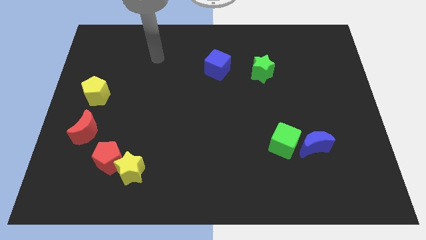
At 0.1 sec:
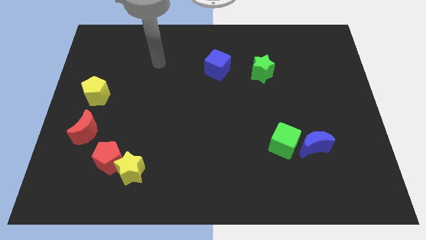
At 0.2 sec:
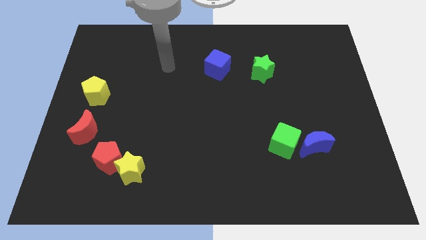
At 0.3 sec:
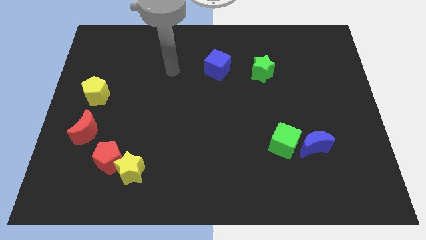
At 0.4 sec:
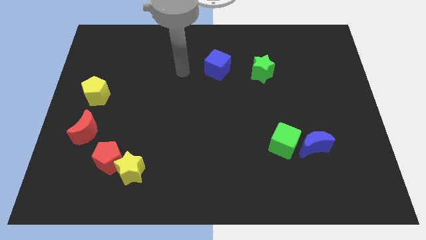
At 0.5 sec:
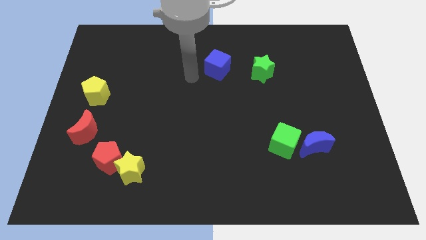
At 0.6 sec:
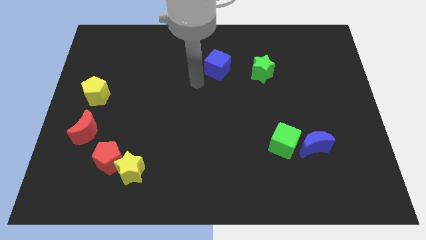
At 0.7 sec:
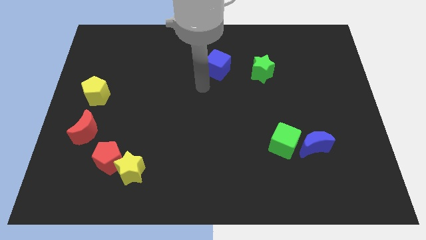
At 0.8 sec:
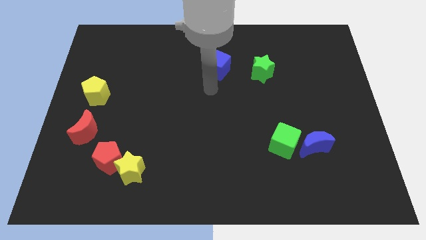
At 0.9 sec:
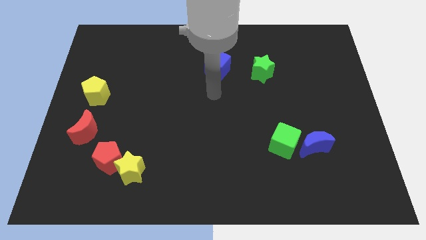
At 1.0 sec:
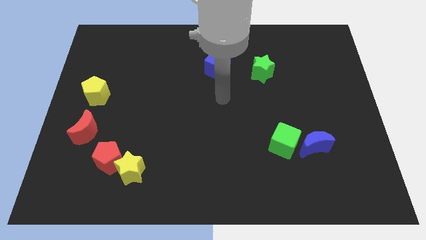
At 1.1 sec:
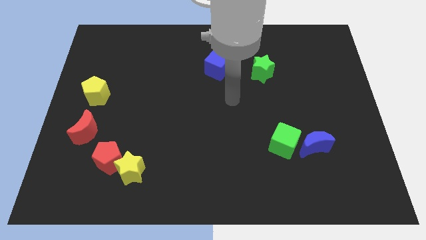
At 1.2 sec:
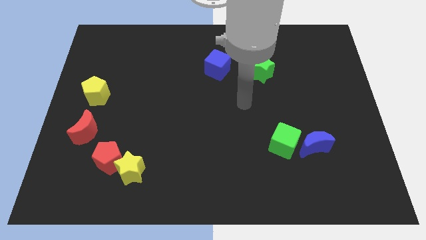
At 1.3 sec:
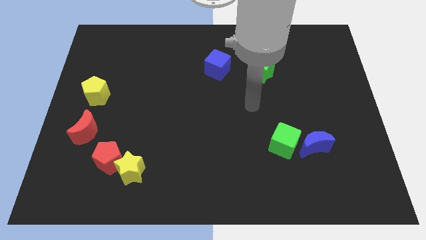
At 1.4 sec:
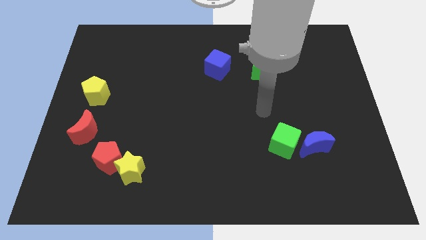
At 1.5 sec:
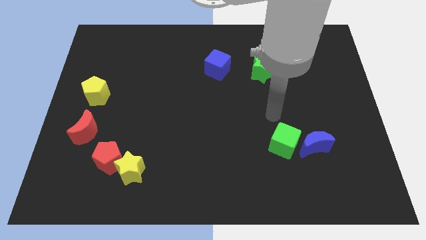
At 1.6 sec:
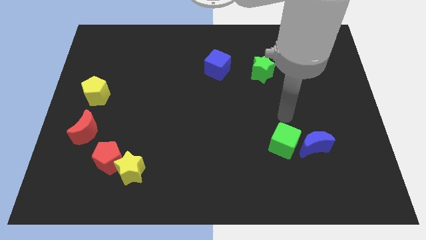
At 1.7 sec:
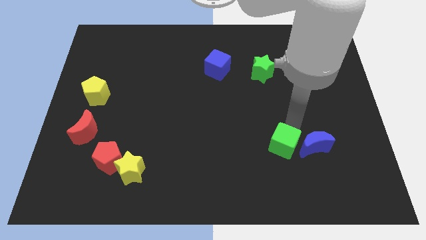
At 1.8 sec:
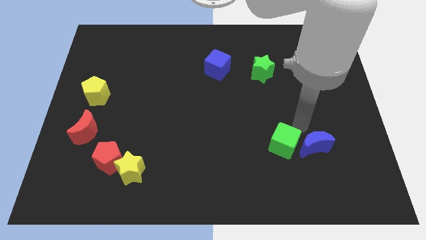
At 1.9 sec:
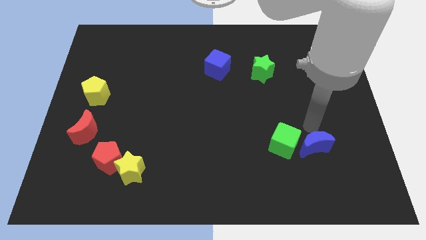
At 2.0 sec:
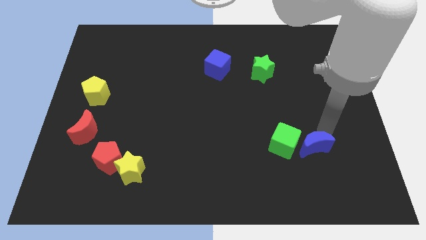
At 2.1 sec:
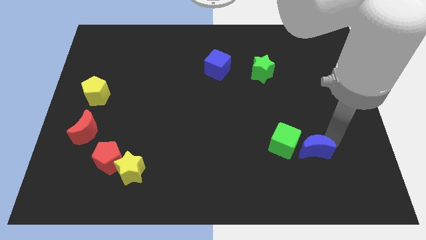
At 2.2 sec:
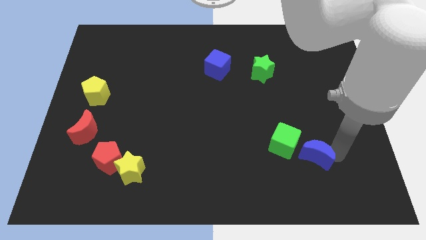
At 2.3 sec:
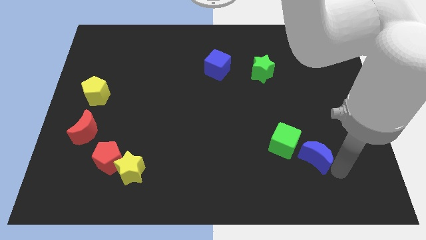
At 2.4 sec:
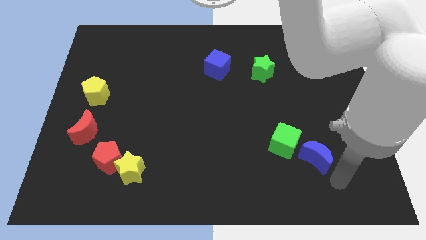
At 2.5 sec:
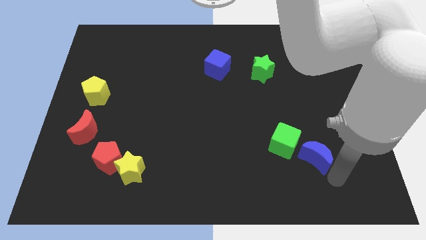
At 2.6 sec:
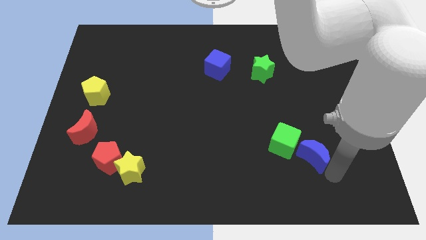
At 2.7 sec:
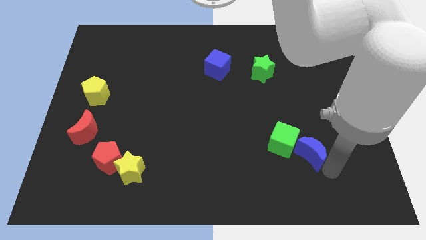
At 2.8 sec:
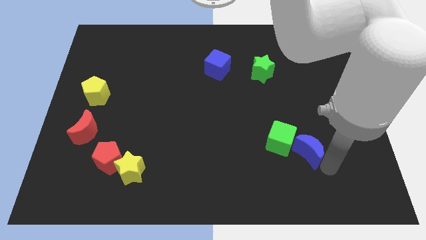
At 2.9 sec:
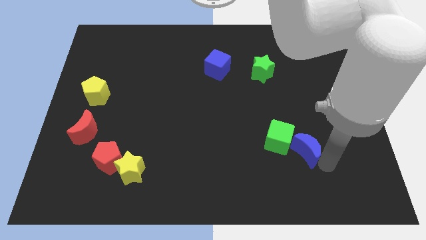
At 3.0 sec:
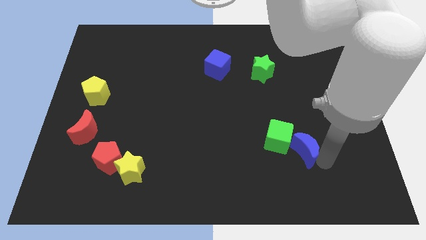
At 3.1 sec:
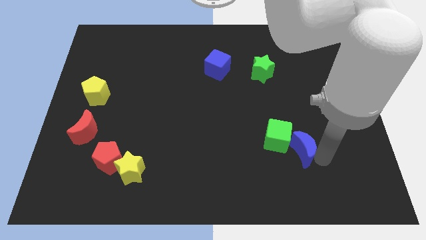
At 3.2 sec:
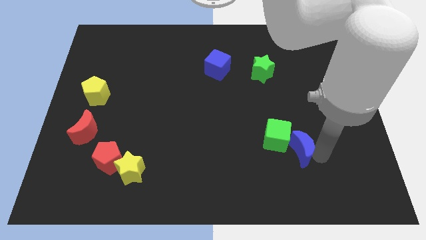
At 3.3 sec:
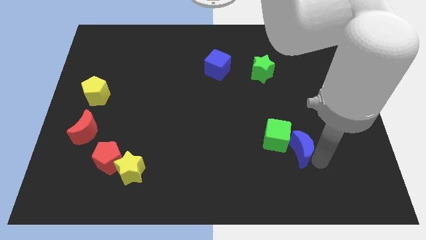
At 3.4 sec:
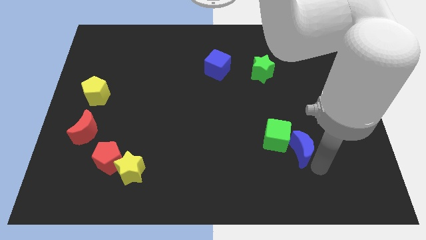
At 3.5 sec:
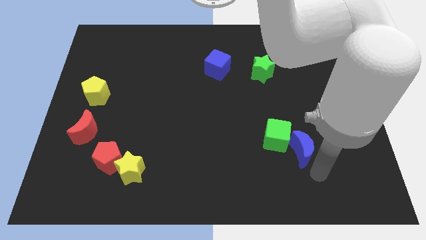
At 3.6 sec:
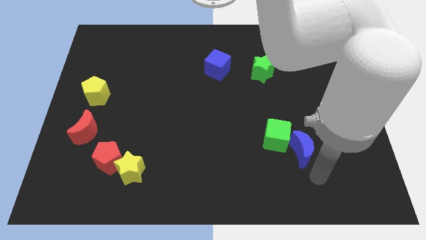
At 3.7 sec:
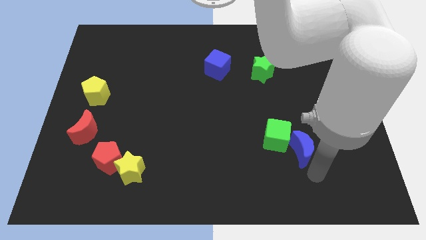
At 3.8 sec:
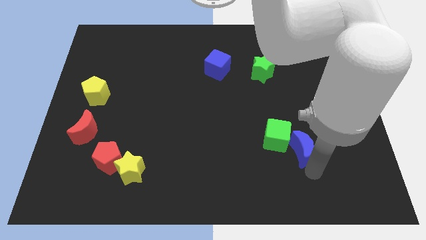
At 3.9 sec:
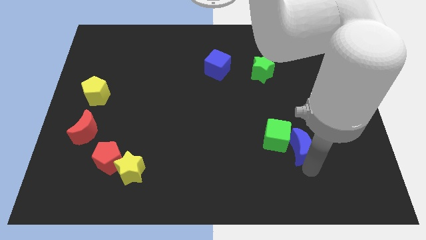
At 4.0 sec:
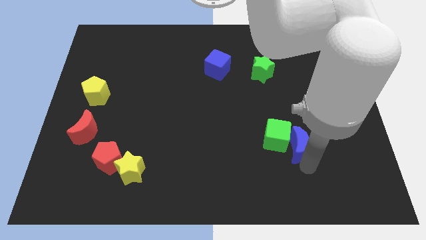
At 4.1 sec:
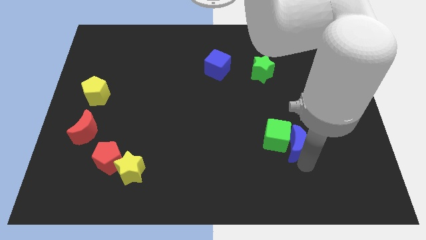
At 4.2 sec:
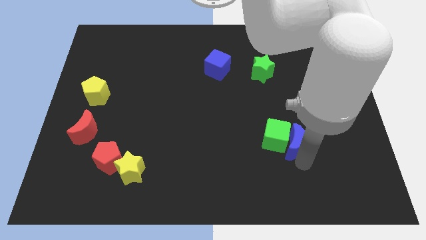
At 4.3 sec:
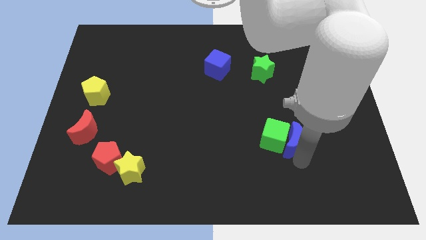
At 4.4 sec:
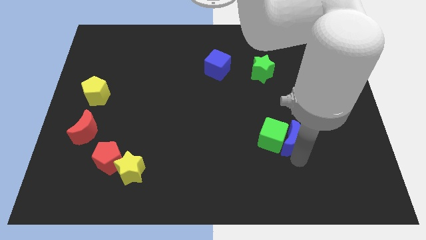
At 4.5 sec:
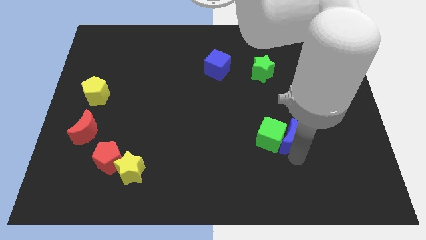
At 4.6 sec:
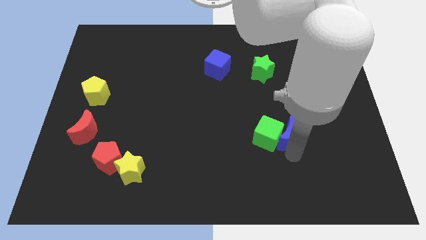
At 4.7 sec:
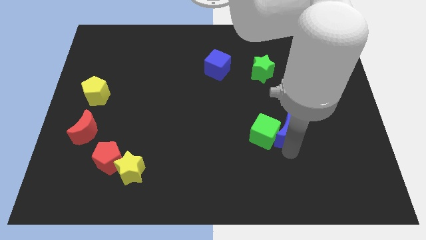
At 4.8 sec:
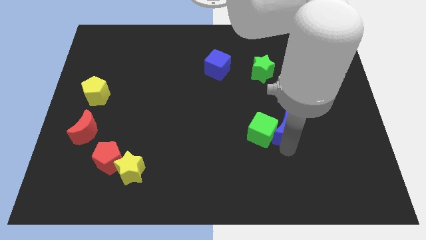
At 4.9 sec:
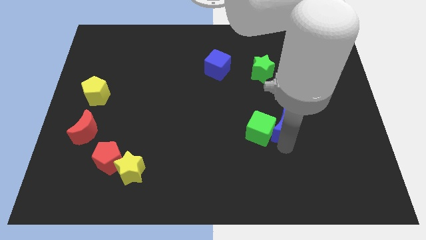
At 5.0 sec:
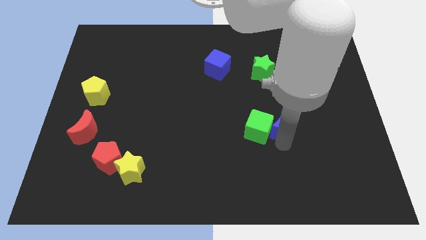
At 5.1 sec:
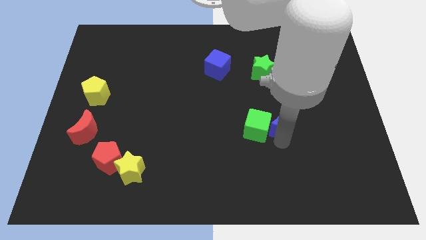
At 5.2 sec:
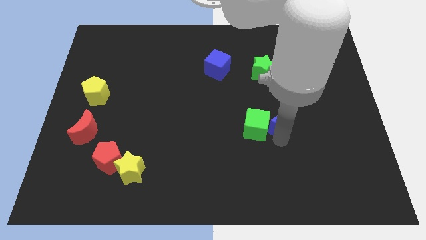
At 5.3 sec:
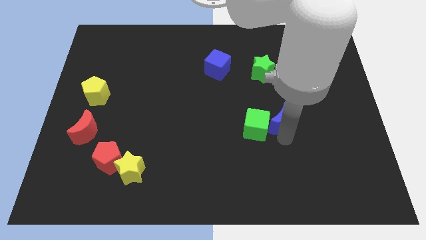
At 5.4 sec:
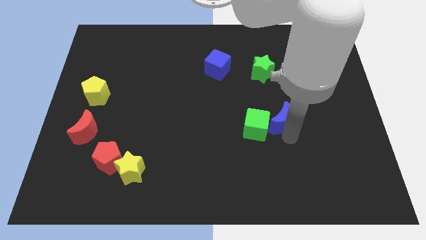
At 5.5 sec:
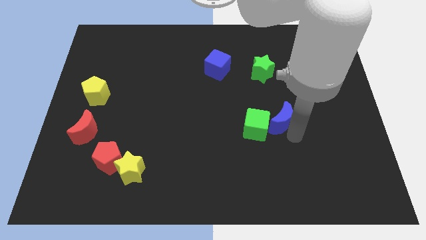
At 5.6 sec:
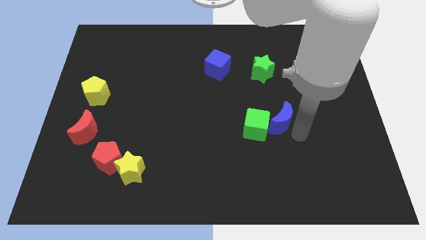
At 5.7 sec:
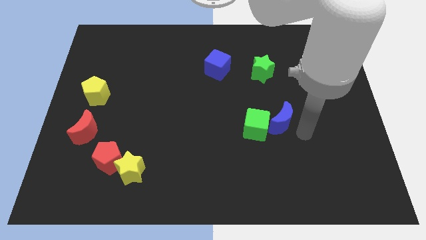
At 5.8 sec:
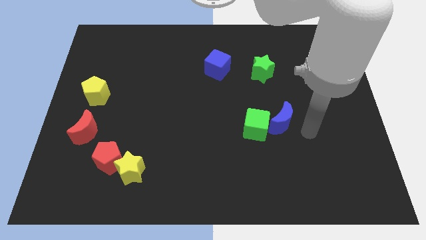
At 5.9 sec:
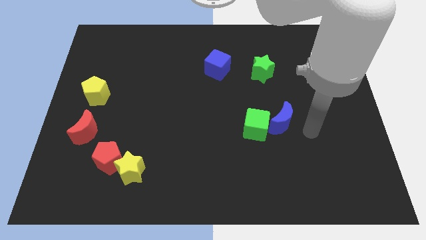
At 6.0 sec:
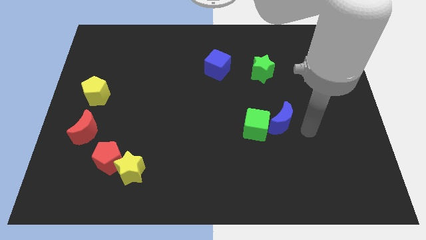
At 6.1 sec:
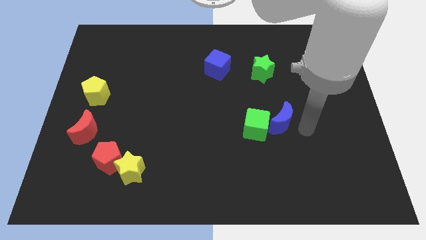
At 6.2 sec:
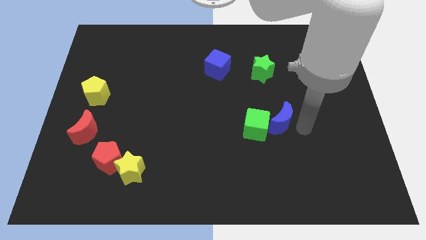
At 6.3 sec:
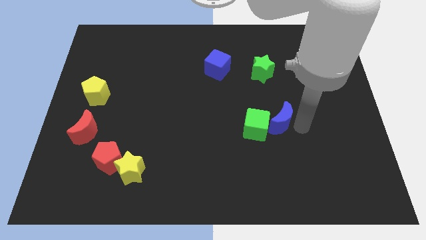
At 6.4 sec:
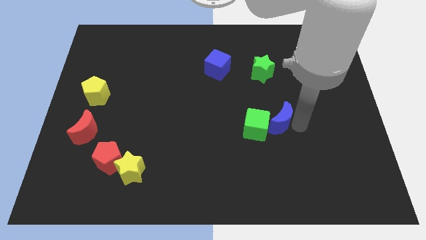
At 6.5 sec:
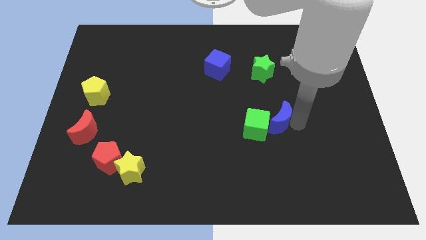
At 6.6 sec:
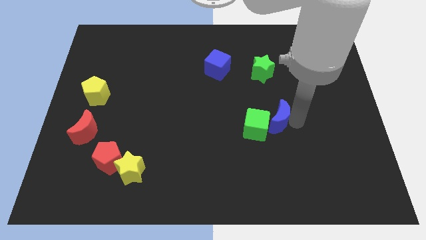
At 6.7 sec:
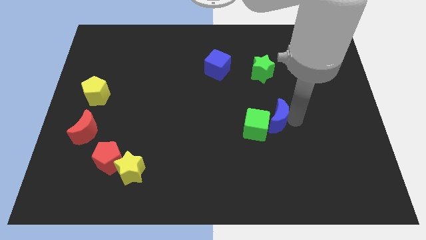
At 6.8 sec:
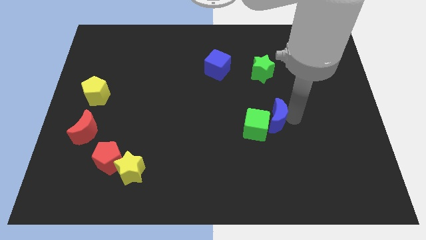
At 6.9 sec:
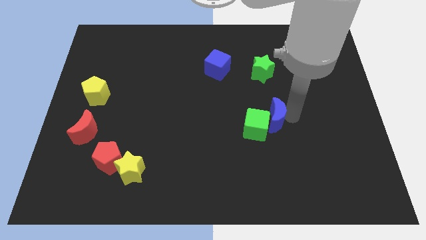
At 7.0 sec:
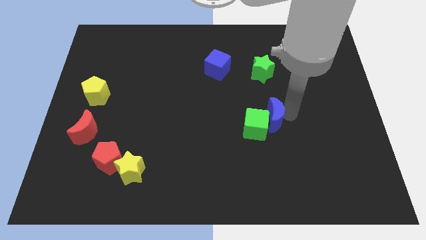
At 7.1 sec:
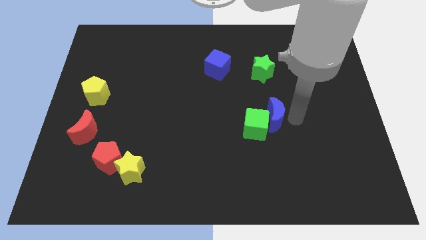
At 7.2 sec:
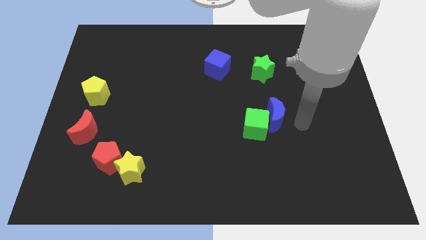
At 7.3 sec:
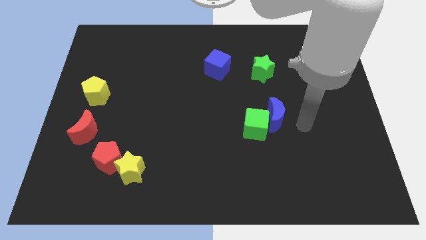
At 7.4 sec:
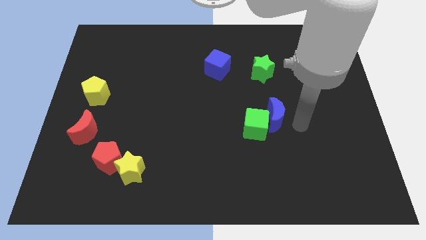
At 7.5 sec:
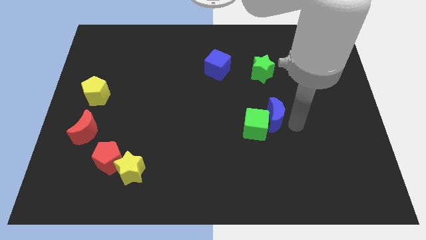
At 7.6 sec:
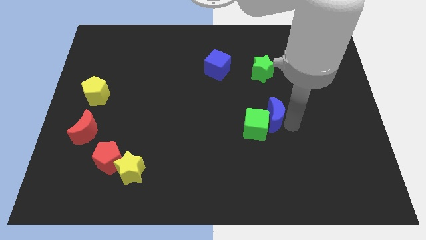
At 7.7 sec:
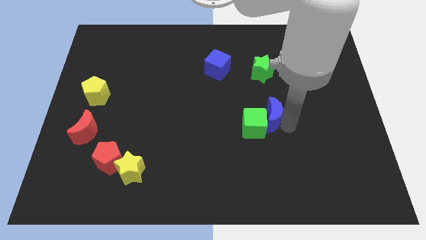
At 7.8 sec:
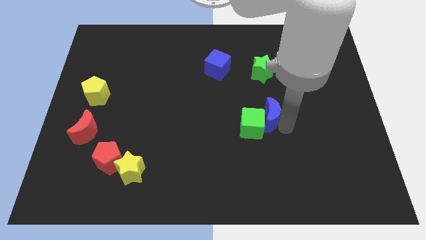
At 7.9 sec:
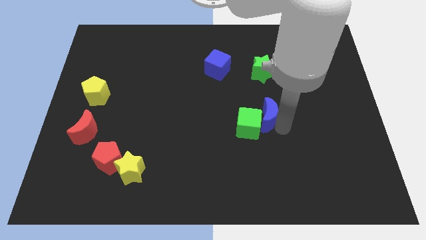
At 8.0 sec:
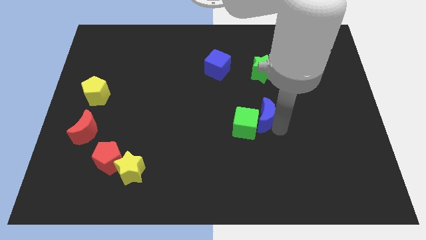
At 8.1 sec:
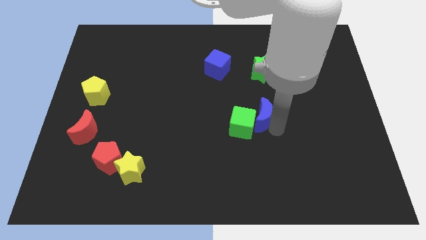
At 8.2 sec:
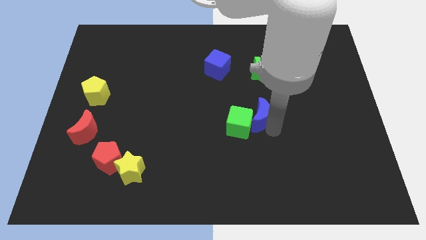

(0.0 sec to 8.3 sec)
slide the blue moon to the center
